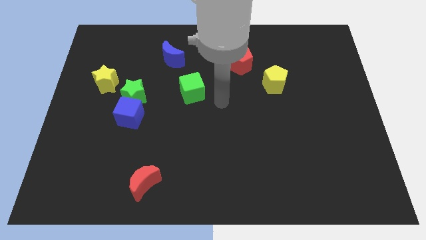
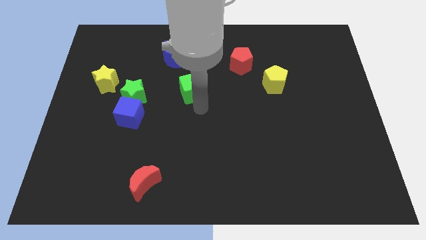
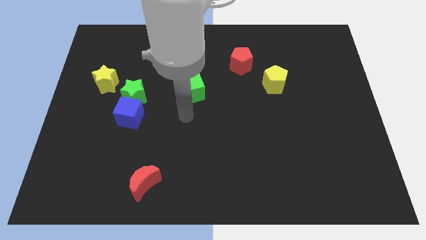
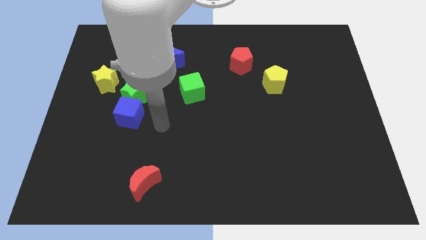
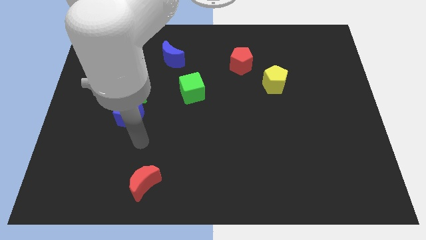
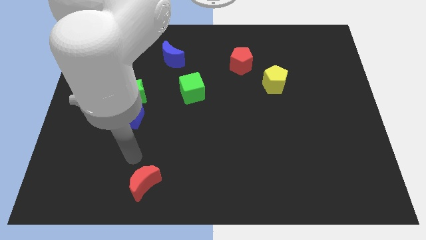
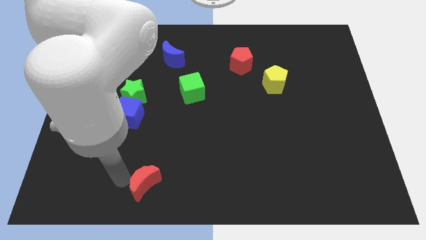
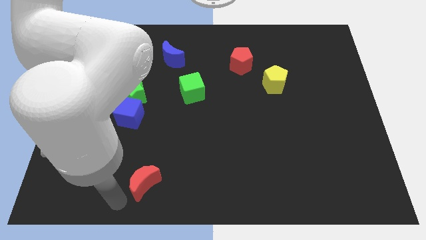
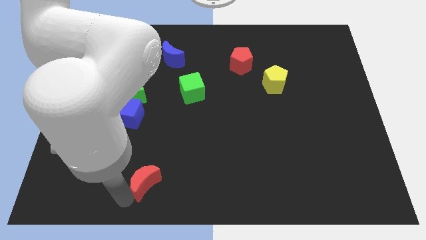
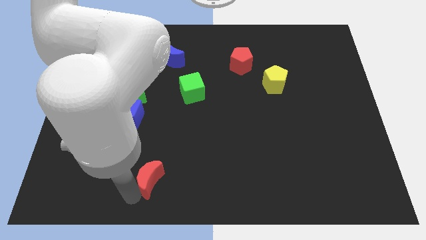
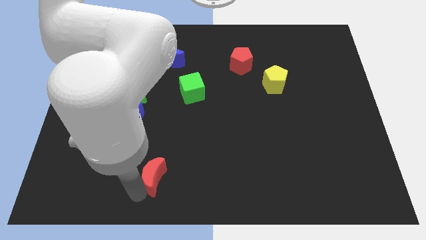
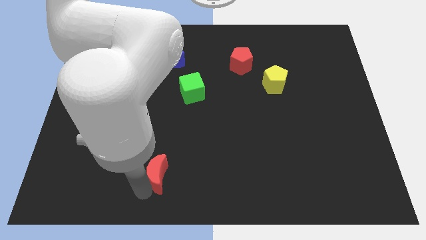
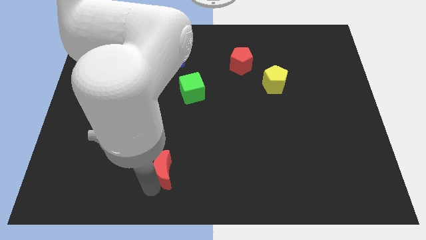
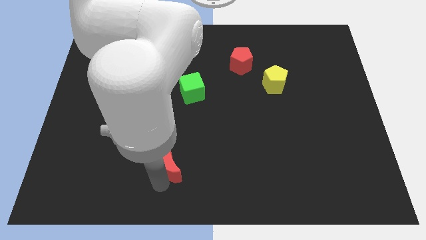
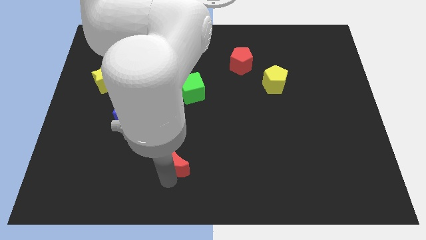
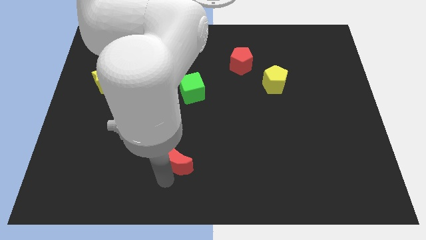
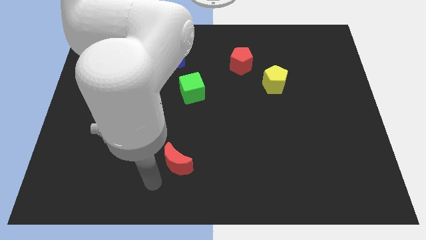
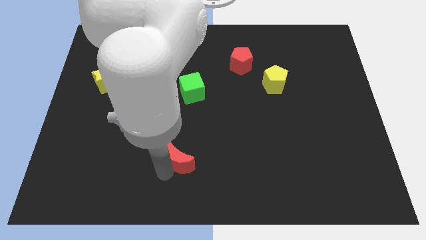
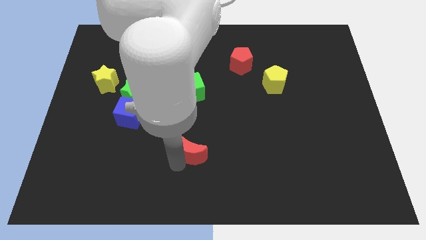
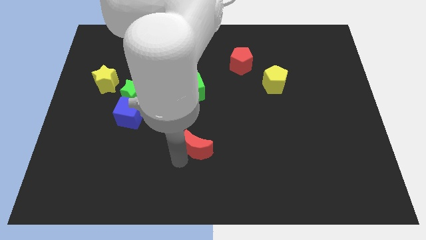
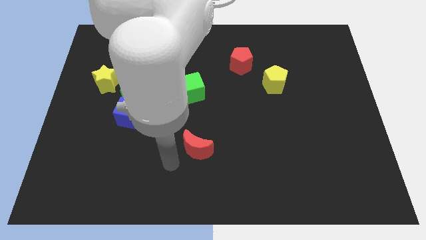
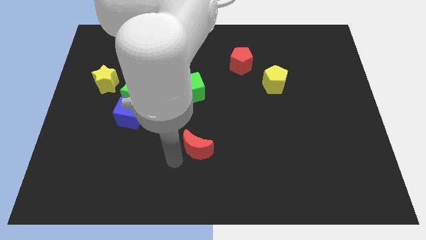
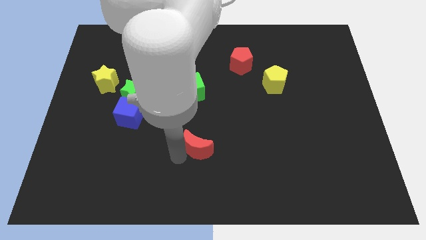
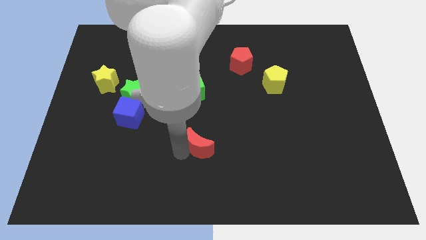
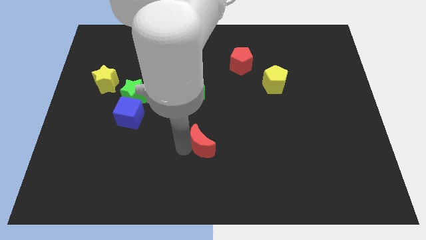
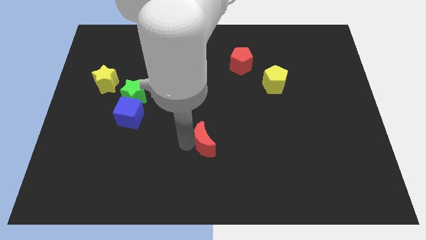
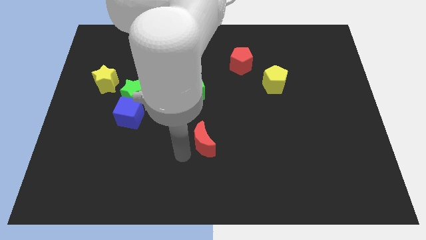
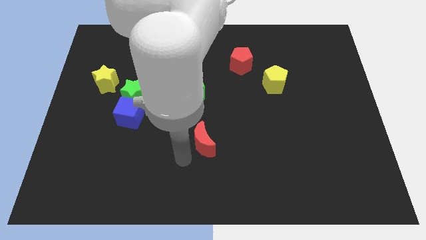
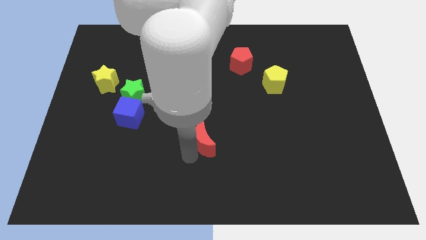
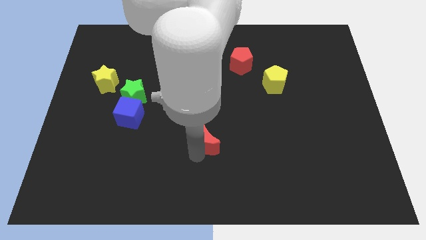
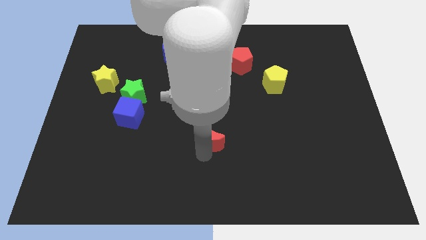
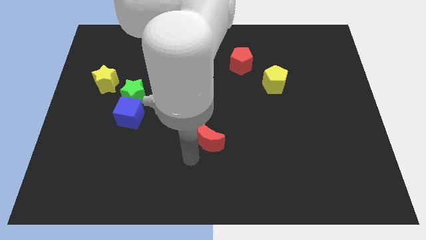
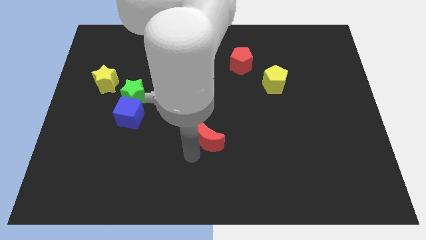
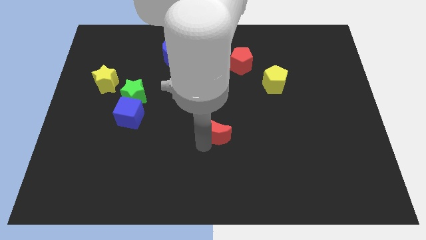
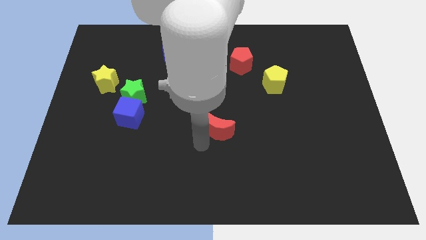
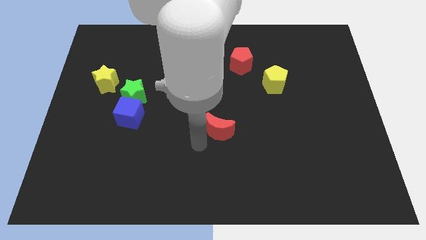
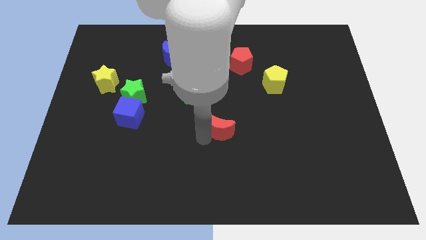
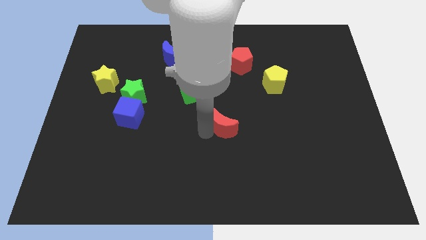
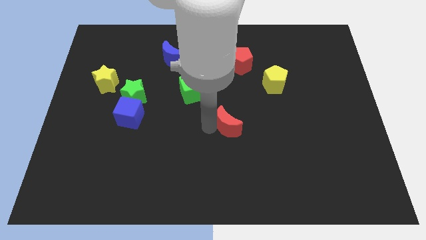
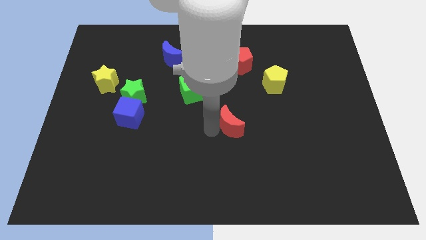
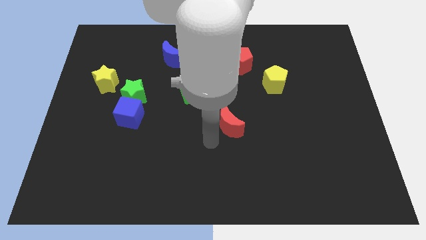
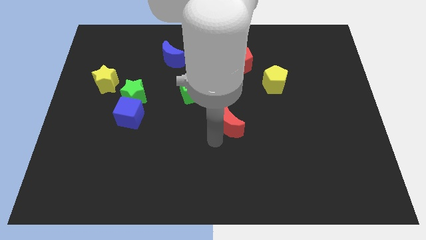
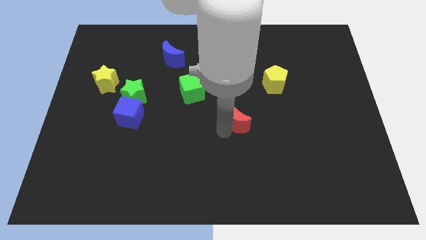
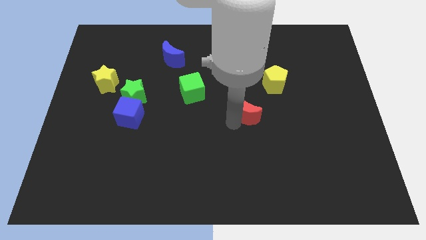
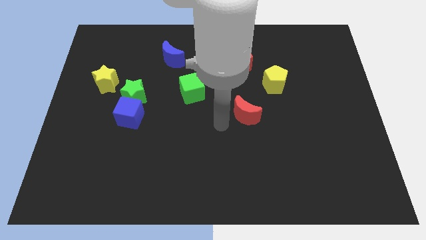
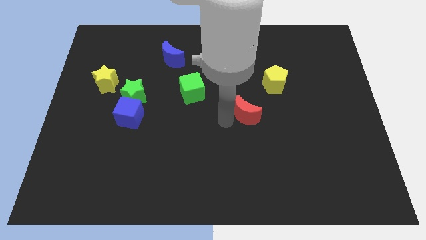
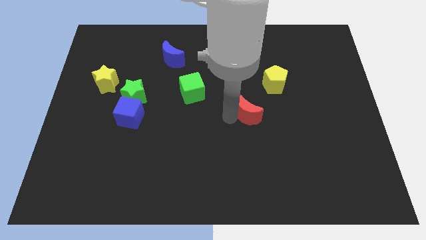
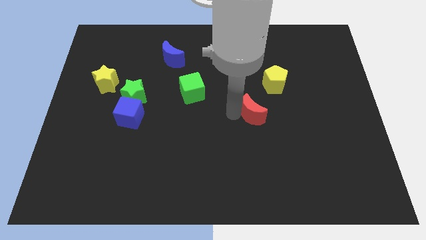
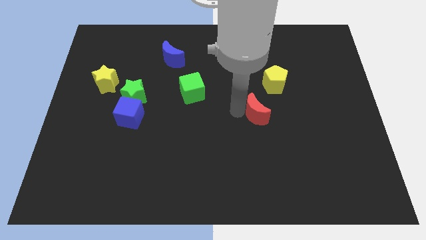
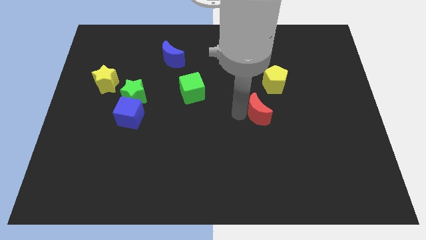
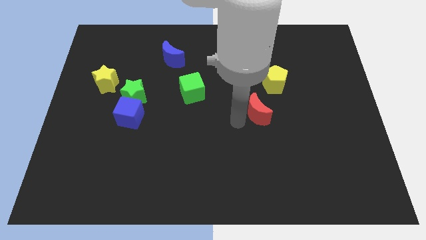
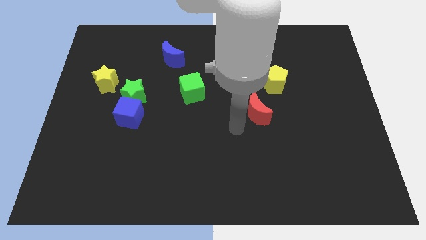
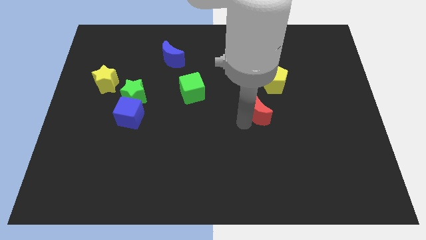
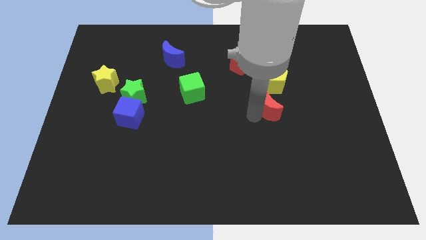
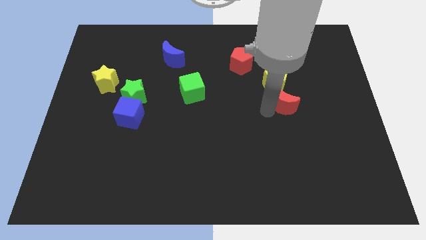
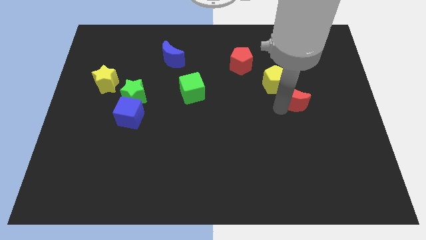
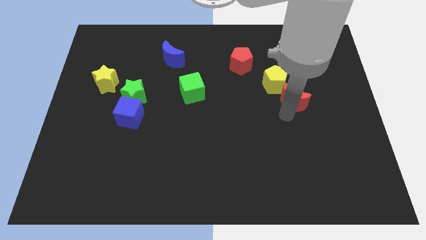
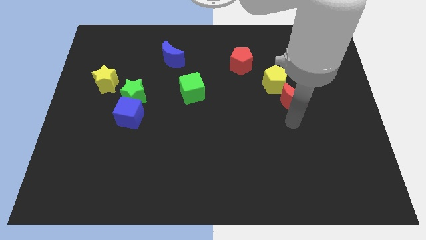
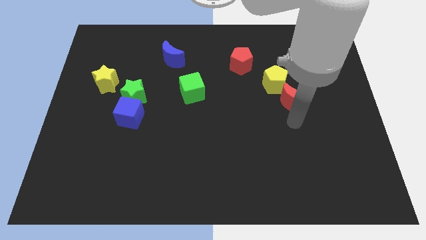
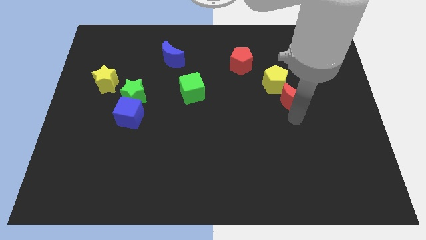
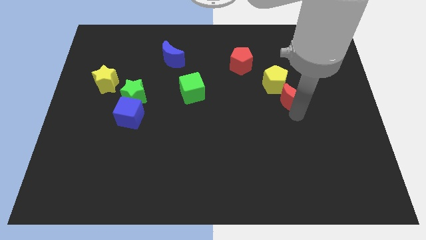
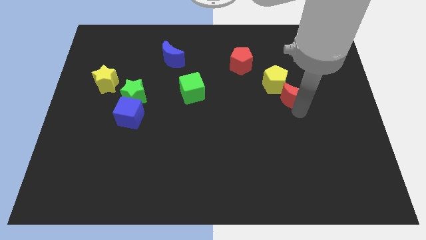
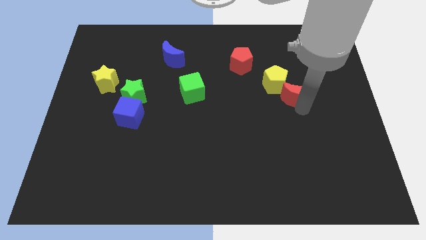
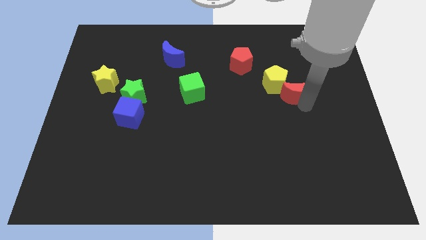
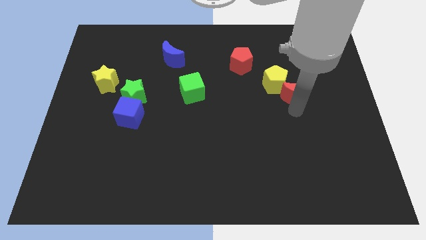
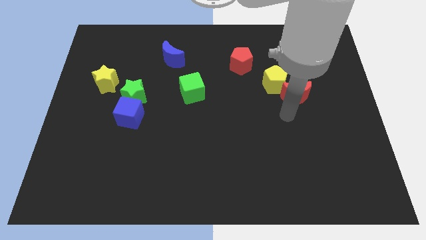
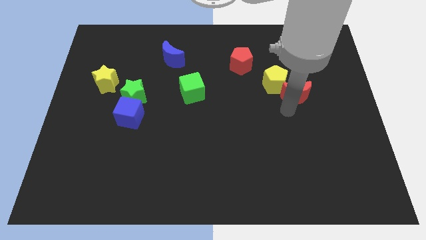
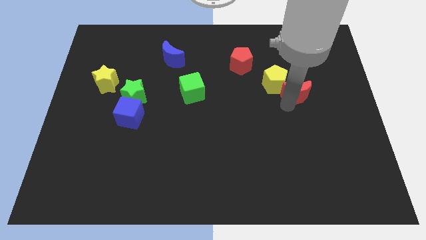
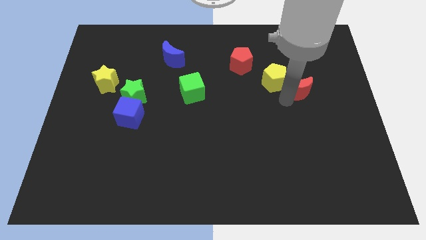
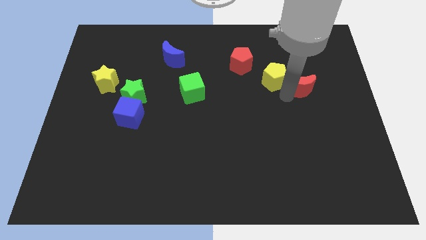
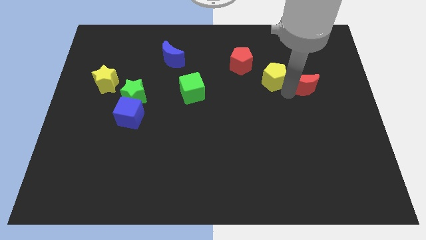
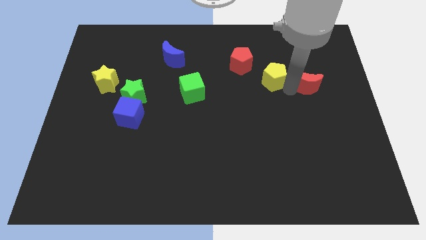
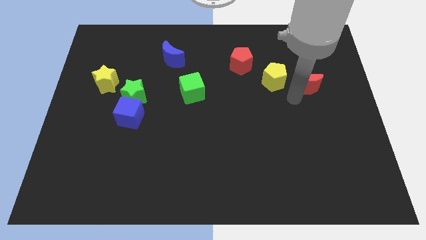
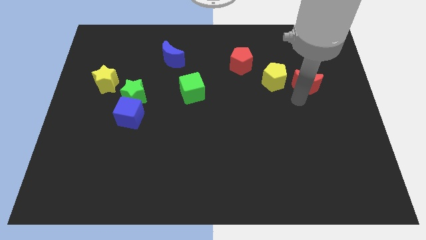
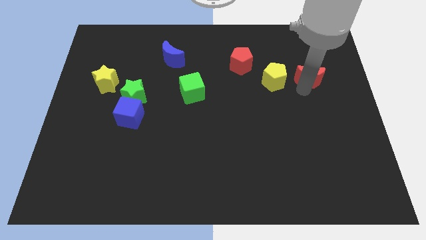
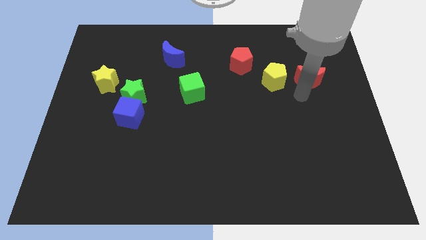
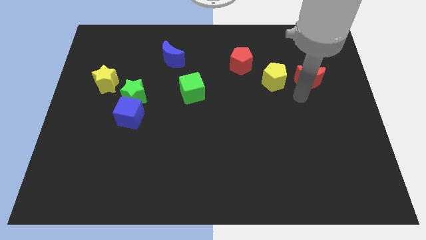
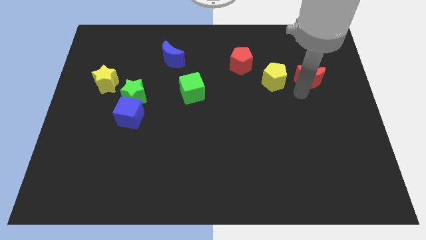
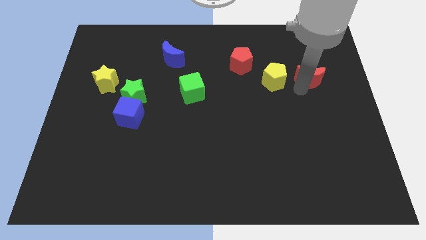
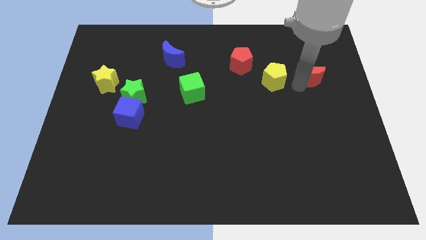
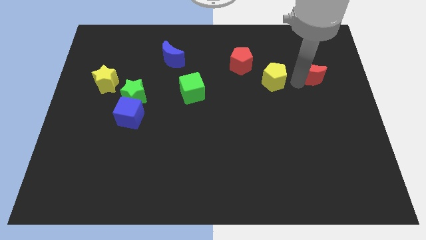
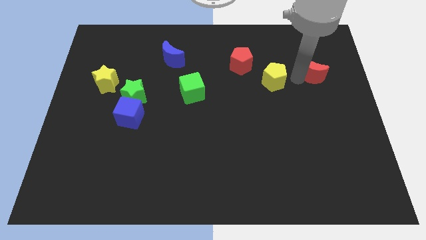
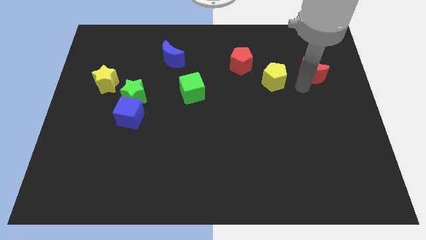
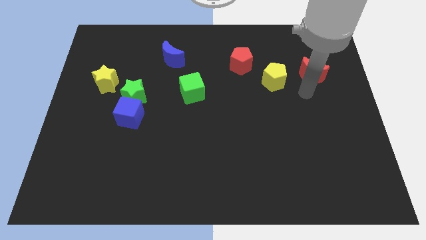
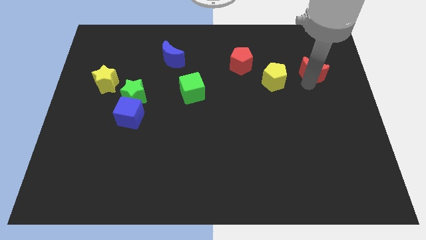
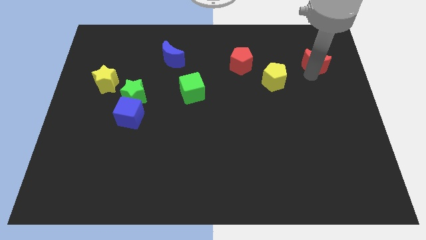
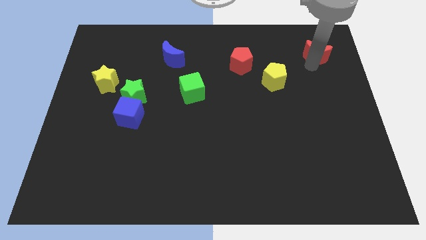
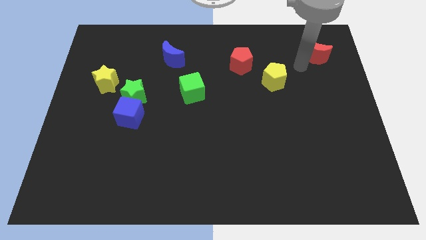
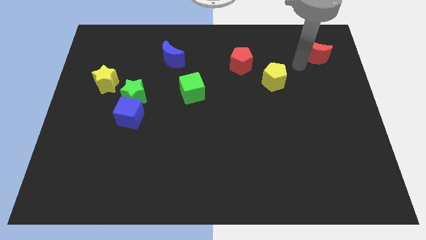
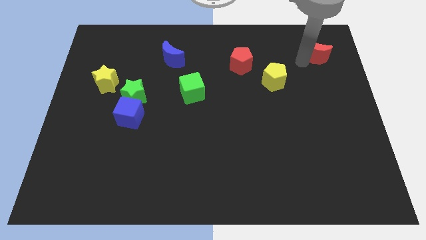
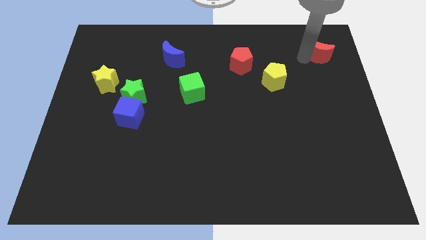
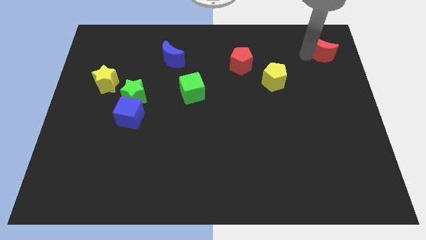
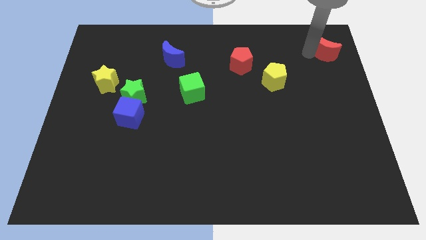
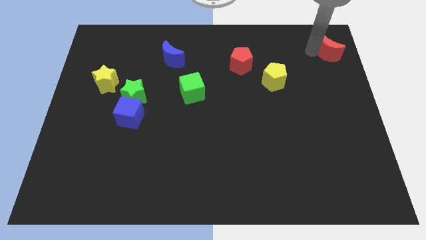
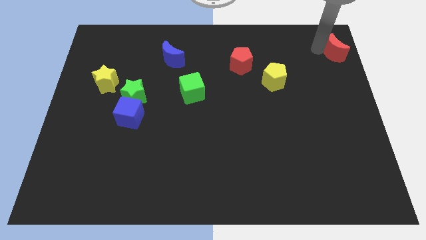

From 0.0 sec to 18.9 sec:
slide the red moon to the top right corner
